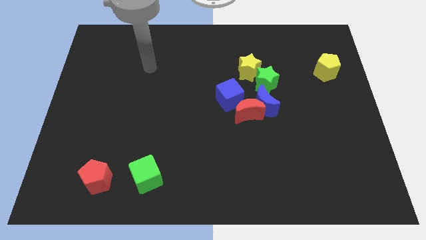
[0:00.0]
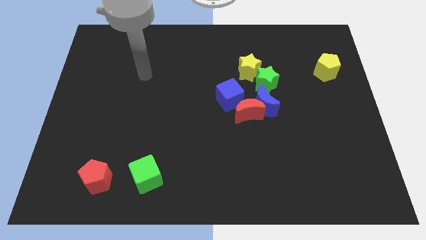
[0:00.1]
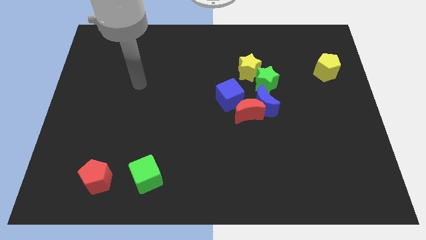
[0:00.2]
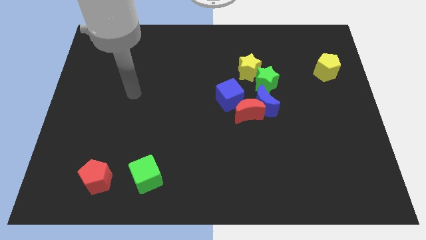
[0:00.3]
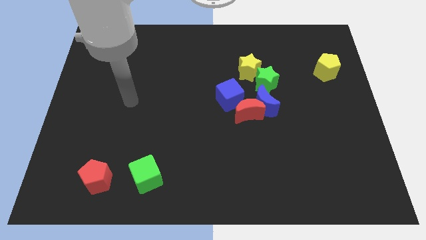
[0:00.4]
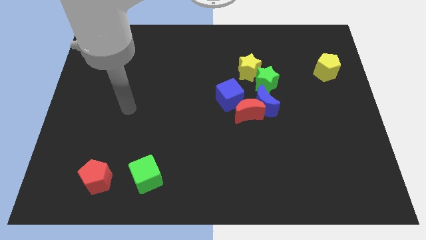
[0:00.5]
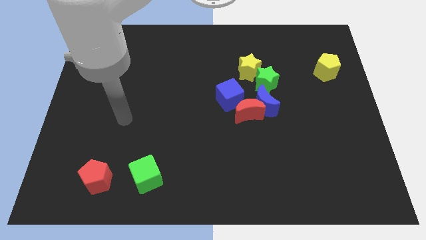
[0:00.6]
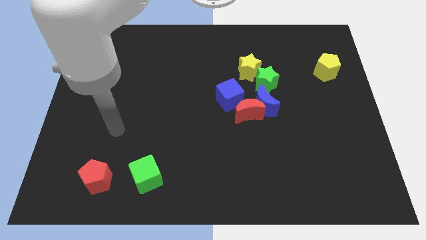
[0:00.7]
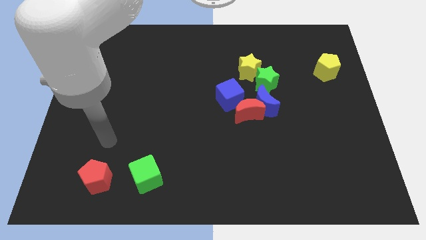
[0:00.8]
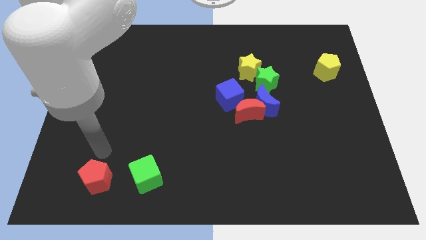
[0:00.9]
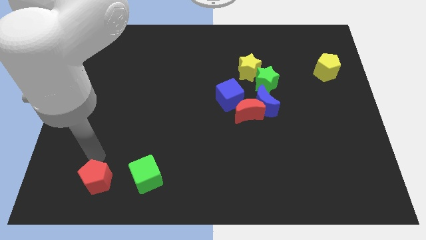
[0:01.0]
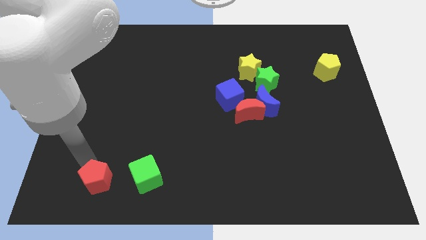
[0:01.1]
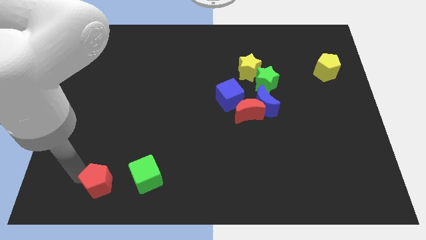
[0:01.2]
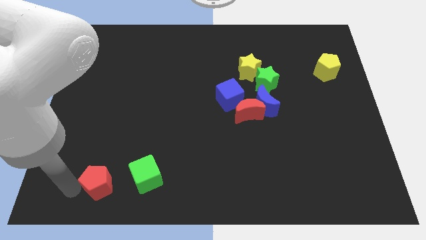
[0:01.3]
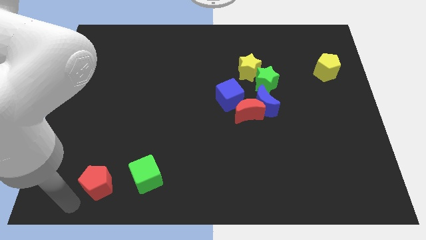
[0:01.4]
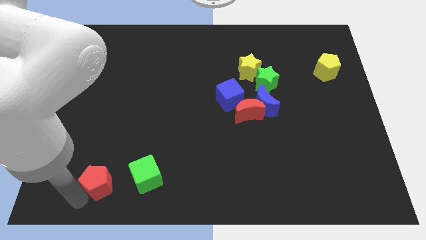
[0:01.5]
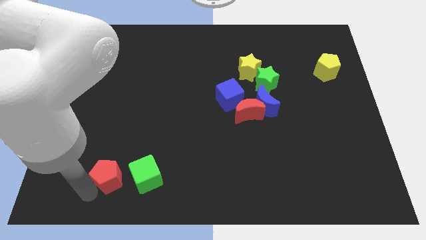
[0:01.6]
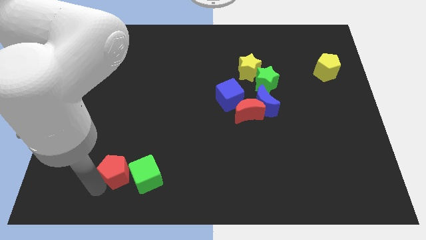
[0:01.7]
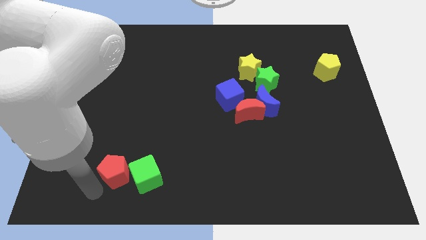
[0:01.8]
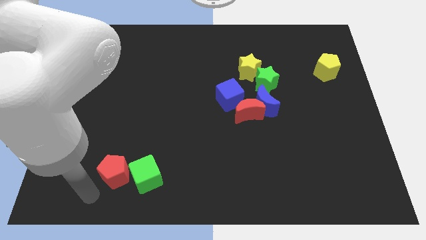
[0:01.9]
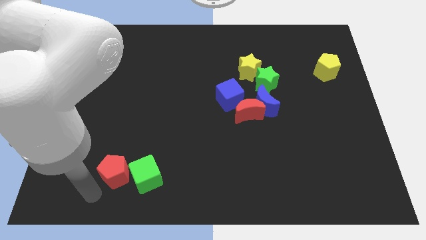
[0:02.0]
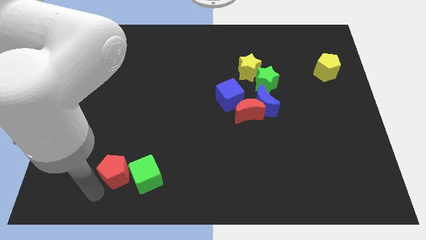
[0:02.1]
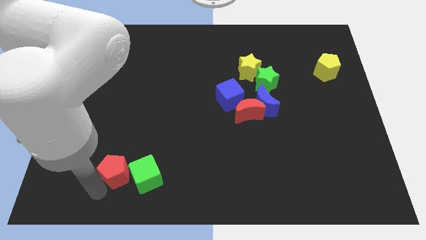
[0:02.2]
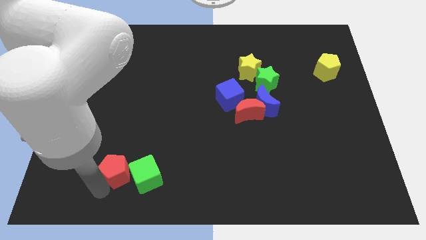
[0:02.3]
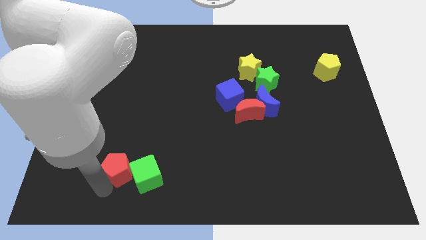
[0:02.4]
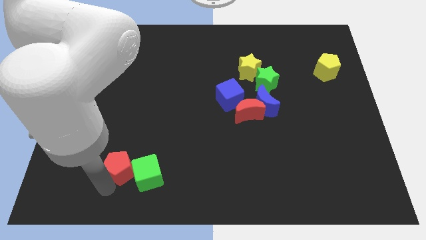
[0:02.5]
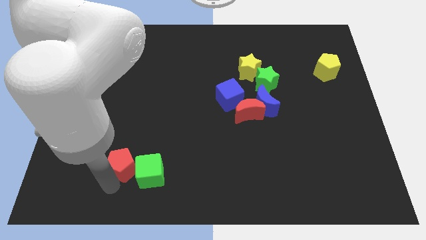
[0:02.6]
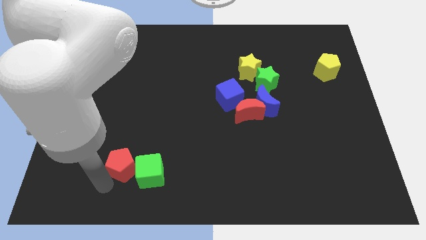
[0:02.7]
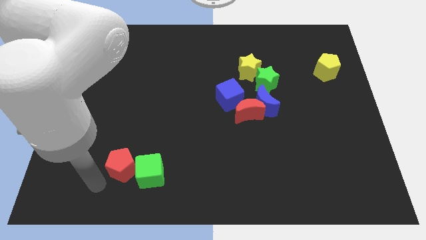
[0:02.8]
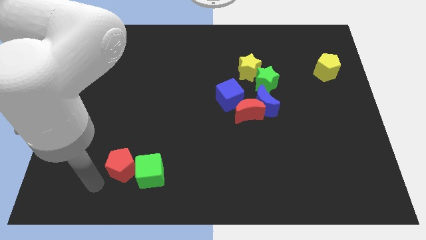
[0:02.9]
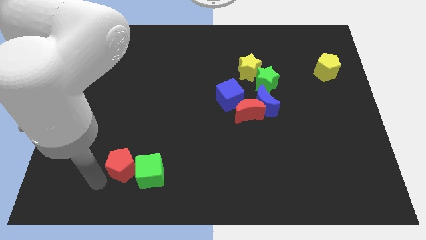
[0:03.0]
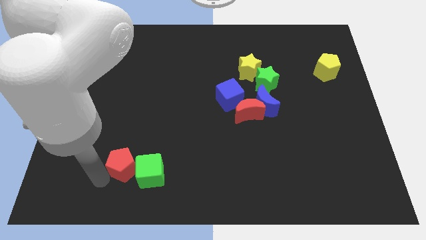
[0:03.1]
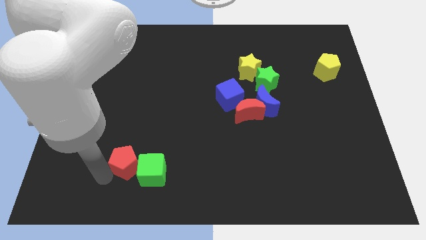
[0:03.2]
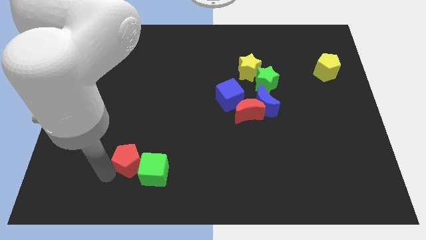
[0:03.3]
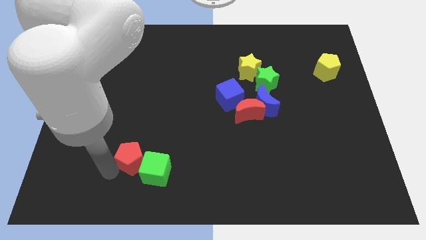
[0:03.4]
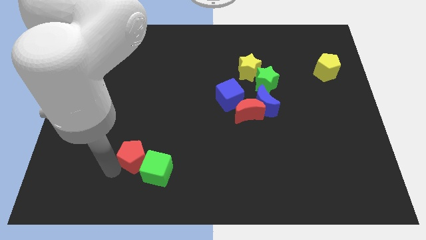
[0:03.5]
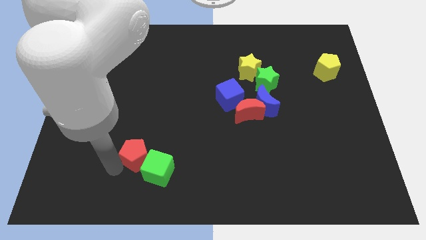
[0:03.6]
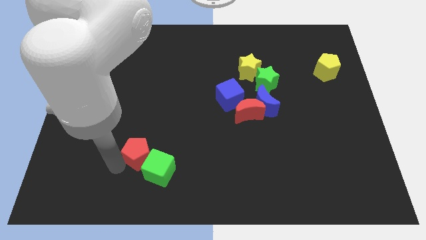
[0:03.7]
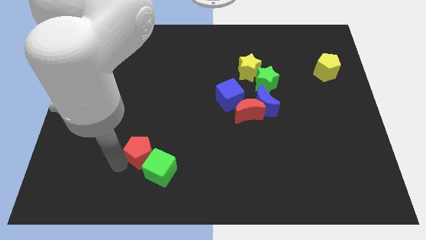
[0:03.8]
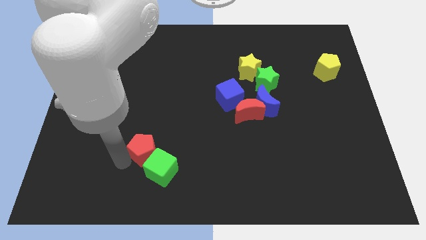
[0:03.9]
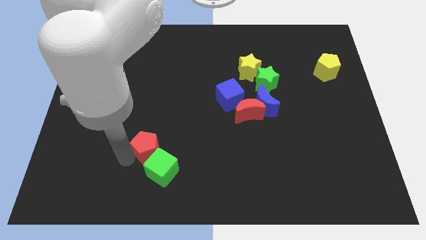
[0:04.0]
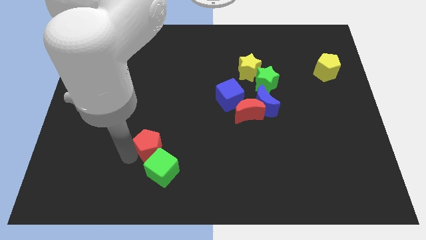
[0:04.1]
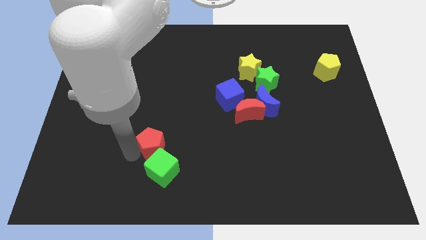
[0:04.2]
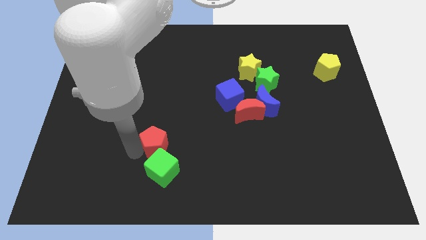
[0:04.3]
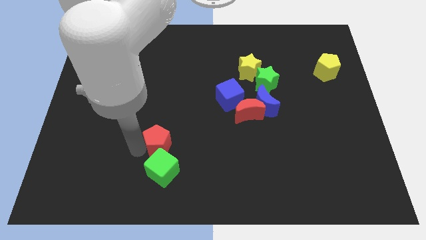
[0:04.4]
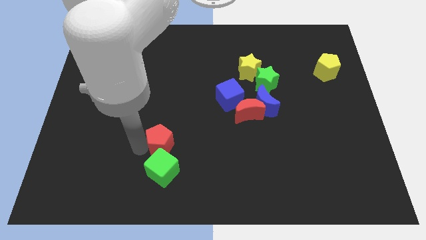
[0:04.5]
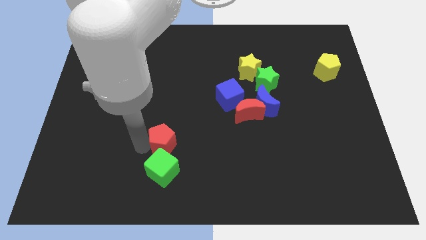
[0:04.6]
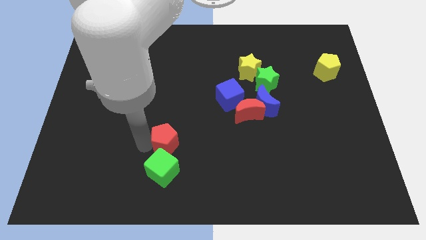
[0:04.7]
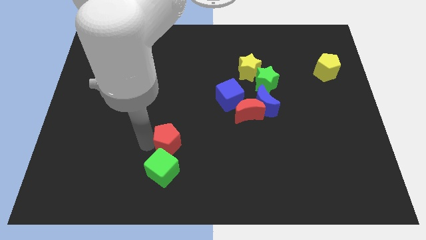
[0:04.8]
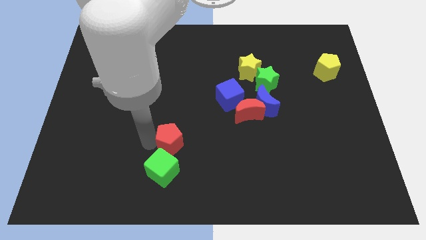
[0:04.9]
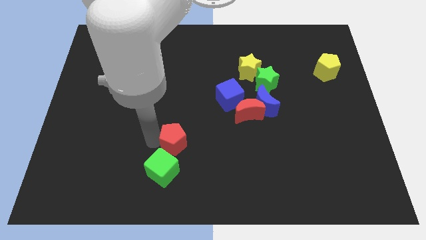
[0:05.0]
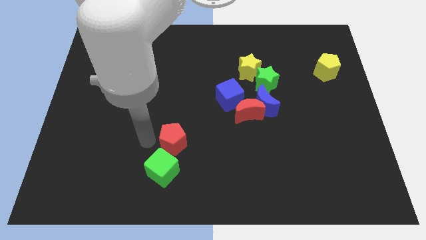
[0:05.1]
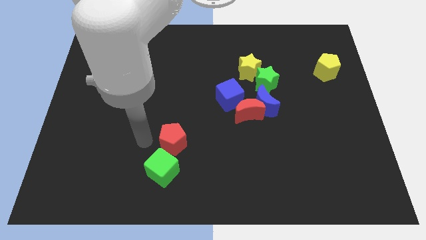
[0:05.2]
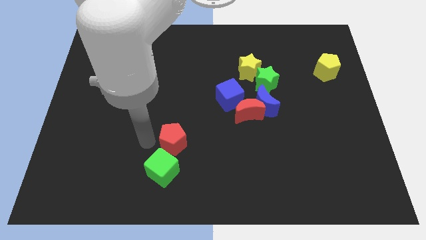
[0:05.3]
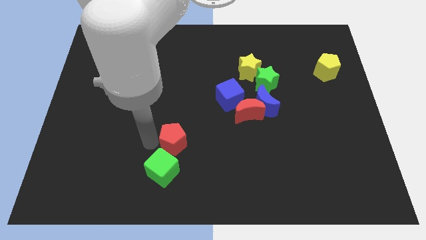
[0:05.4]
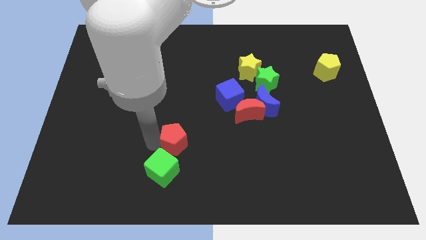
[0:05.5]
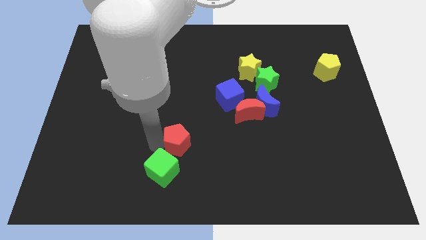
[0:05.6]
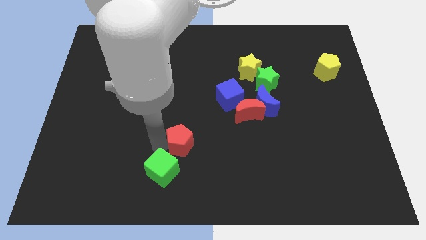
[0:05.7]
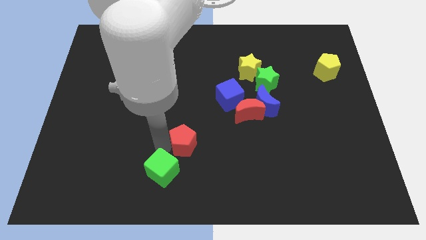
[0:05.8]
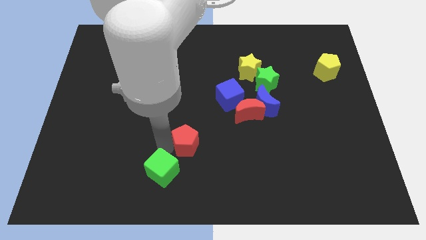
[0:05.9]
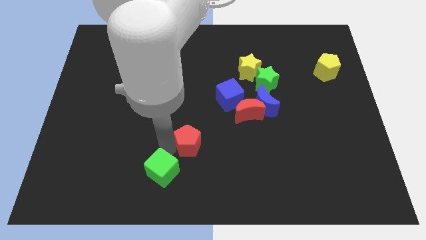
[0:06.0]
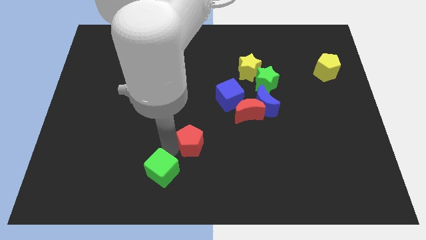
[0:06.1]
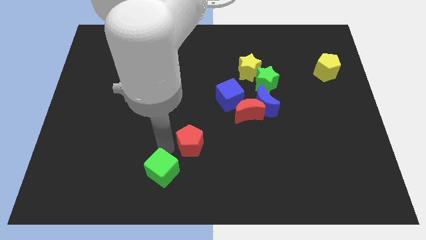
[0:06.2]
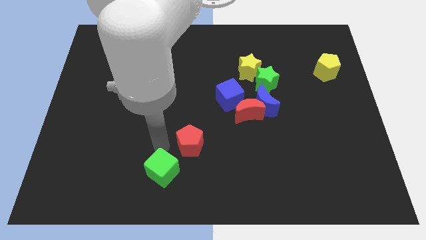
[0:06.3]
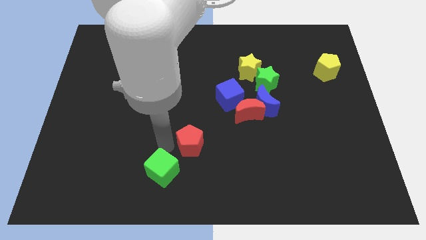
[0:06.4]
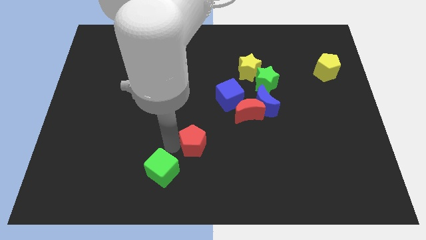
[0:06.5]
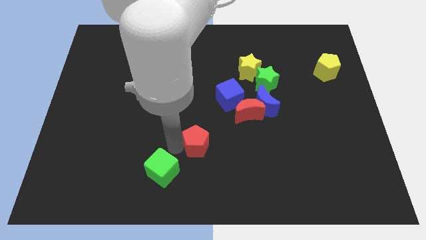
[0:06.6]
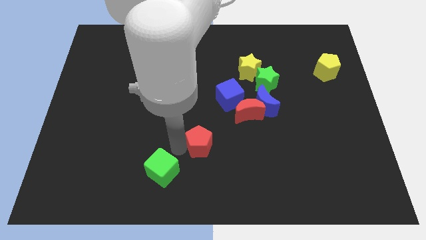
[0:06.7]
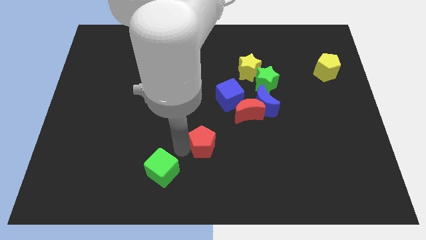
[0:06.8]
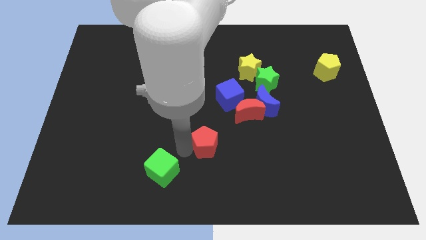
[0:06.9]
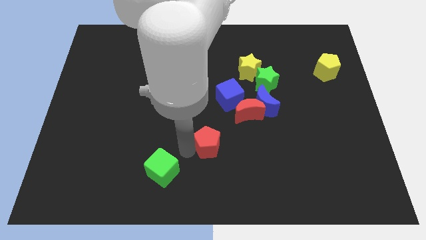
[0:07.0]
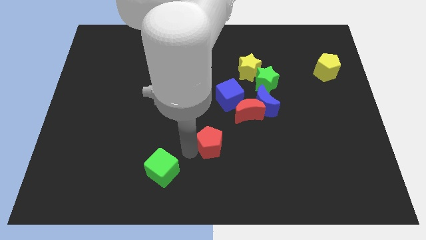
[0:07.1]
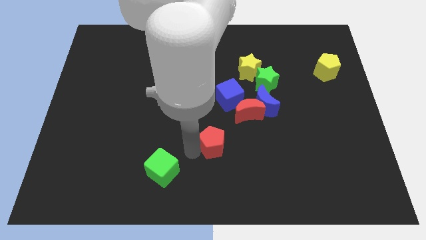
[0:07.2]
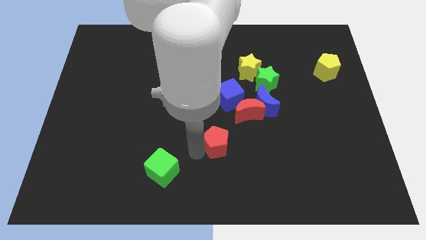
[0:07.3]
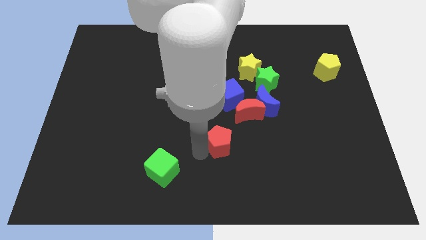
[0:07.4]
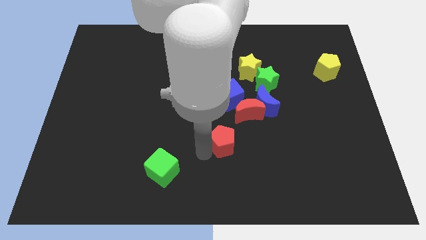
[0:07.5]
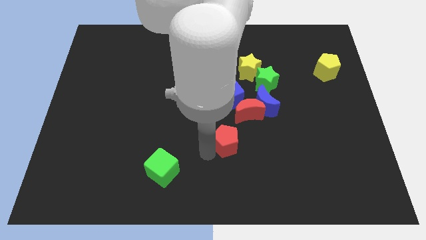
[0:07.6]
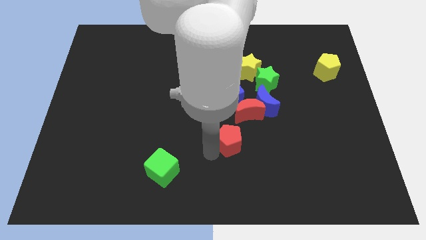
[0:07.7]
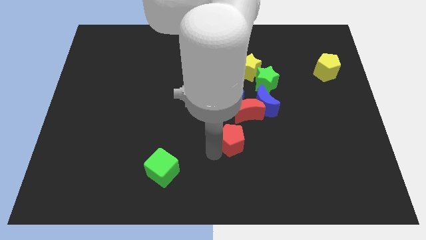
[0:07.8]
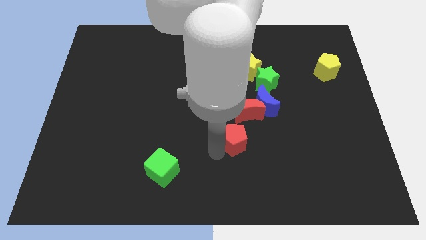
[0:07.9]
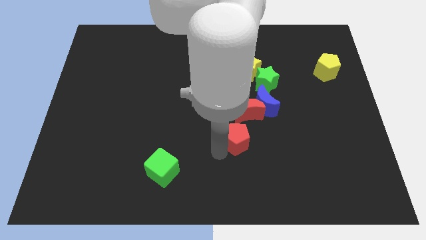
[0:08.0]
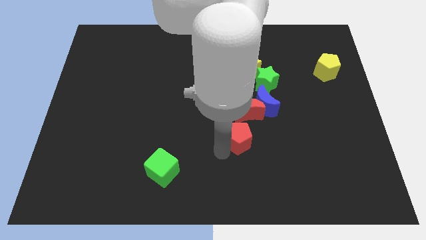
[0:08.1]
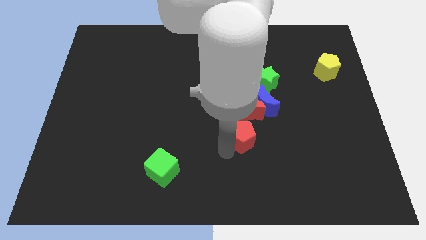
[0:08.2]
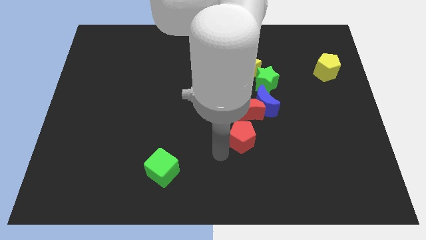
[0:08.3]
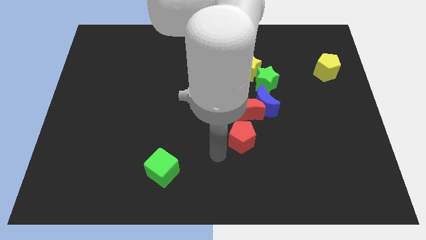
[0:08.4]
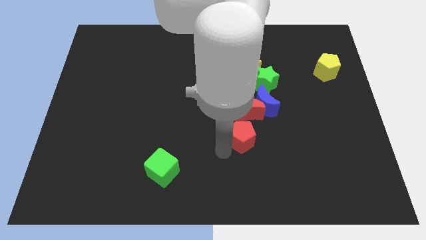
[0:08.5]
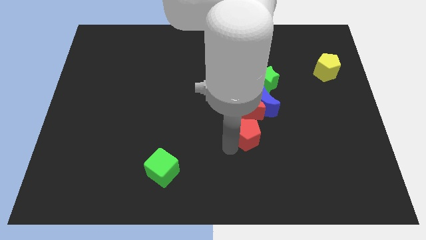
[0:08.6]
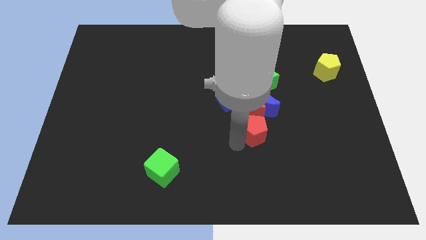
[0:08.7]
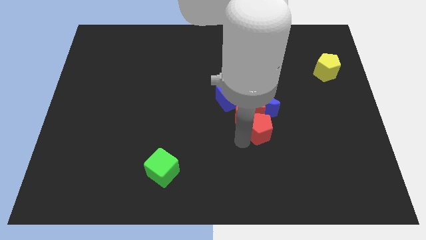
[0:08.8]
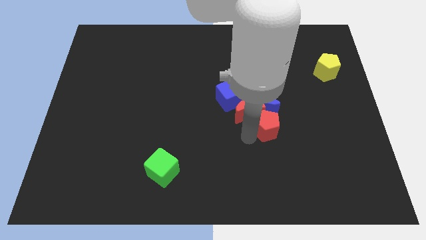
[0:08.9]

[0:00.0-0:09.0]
push the red pentagon to the bottom right side of the blue moon
